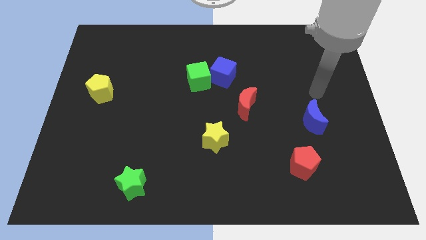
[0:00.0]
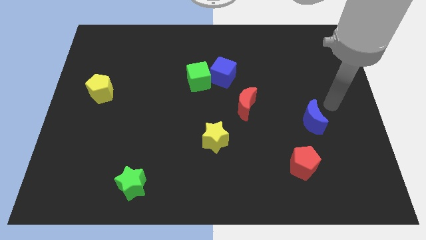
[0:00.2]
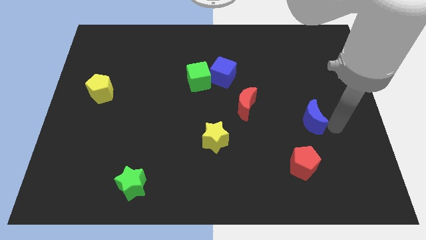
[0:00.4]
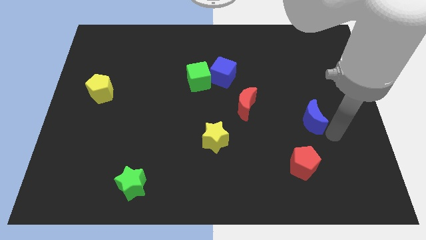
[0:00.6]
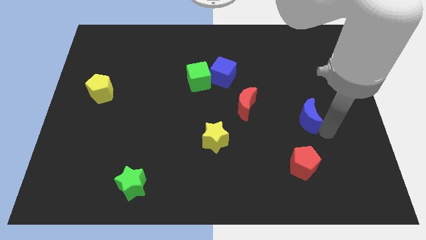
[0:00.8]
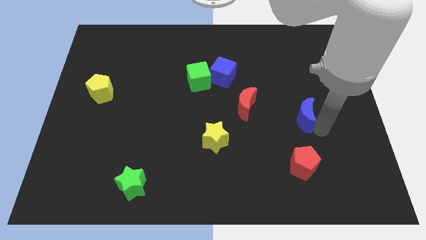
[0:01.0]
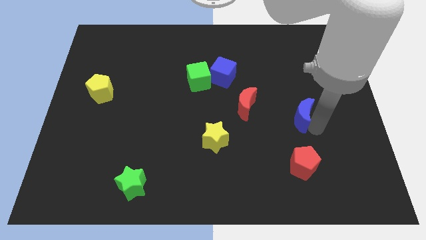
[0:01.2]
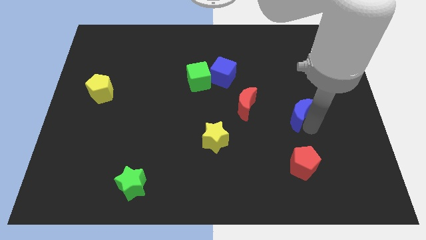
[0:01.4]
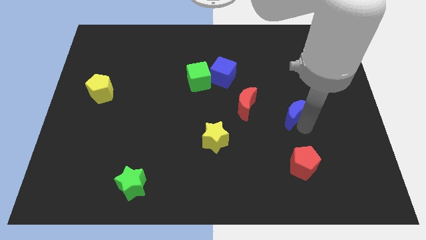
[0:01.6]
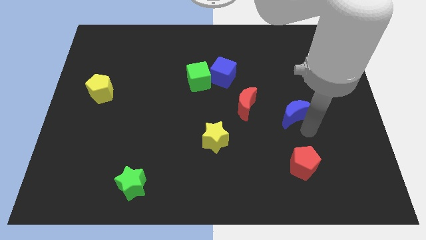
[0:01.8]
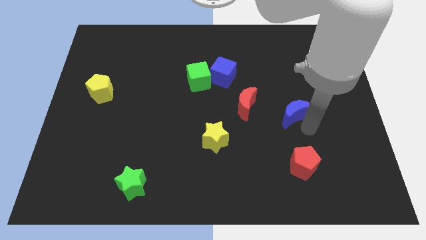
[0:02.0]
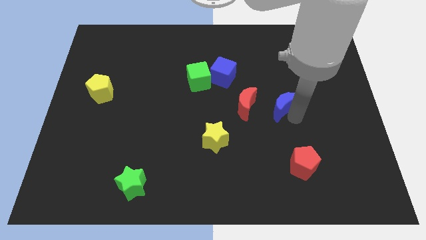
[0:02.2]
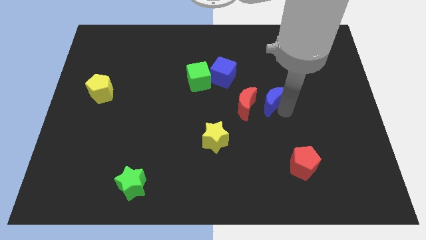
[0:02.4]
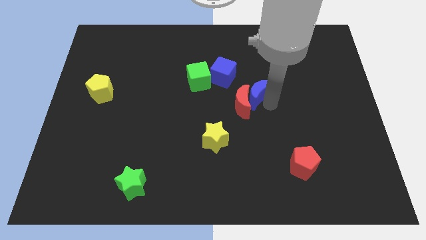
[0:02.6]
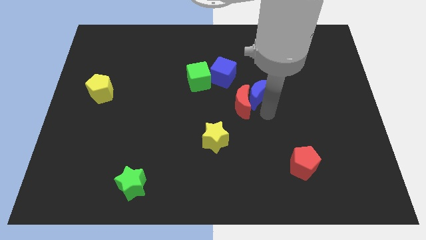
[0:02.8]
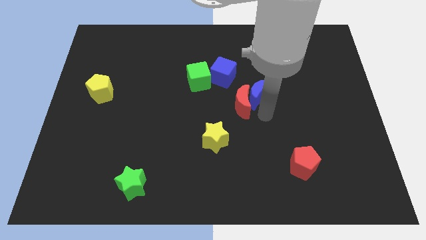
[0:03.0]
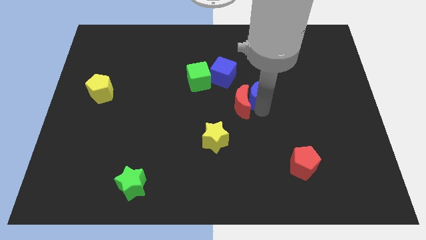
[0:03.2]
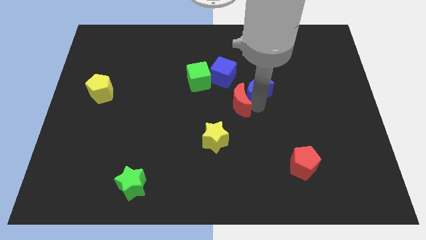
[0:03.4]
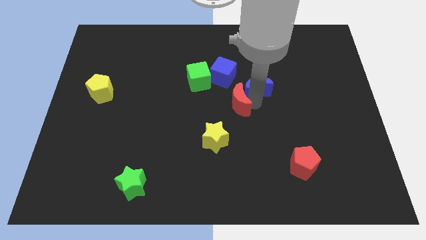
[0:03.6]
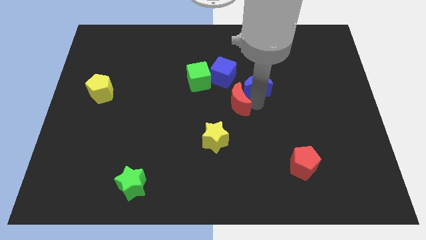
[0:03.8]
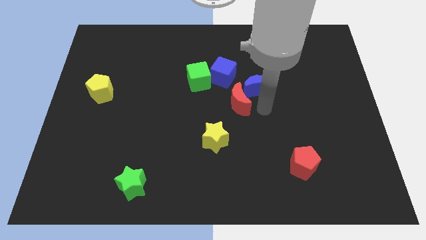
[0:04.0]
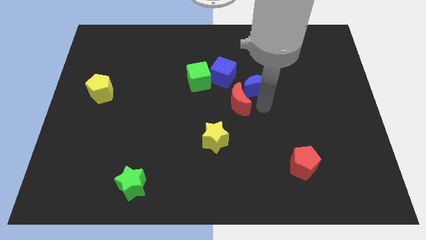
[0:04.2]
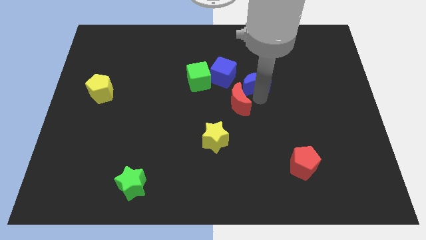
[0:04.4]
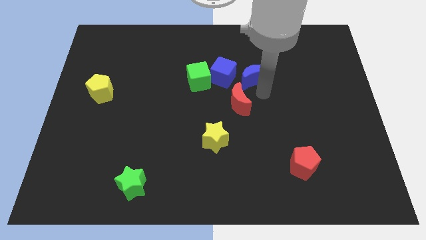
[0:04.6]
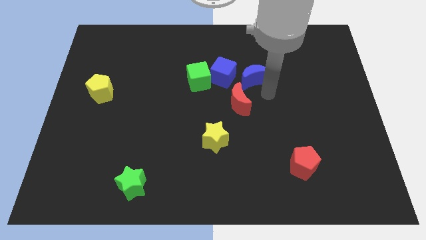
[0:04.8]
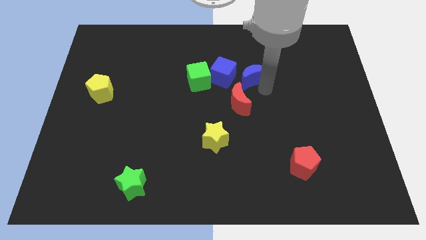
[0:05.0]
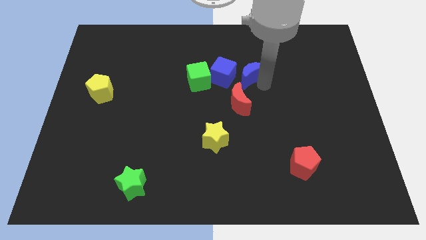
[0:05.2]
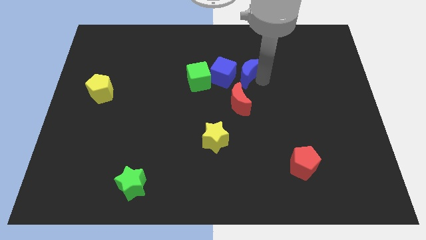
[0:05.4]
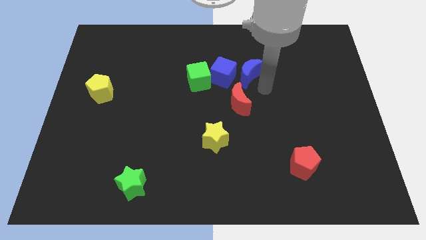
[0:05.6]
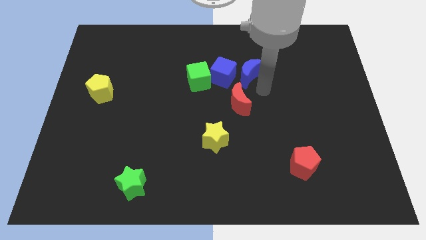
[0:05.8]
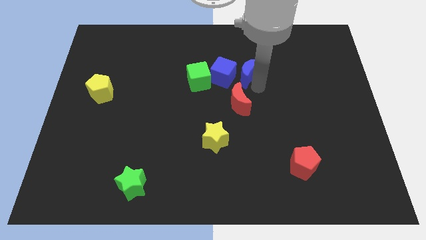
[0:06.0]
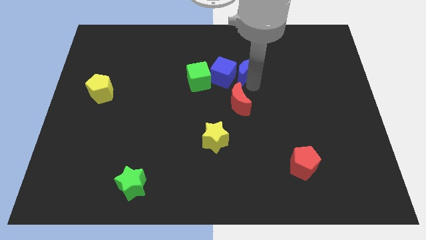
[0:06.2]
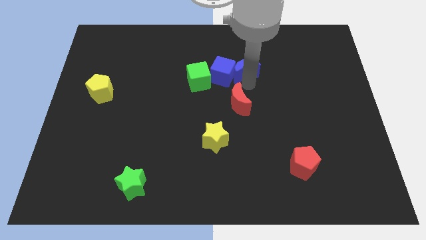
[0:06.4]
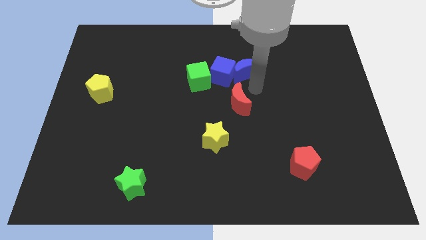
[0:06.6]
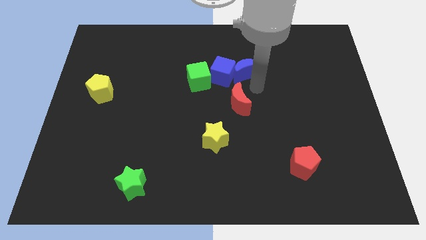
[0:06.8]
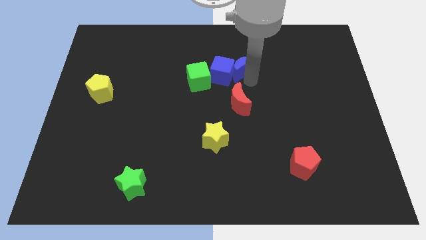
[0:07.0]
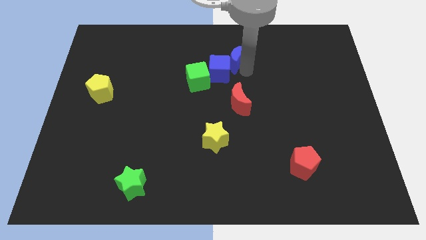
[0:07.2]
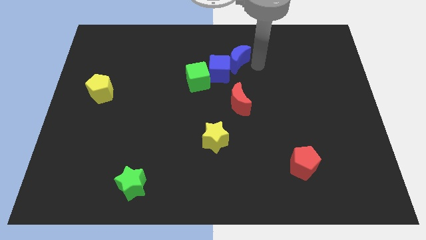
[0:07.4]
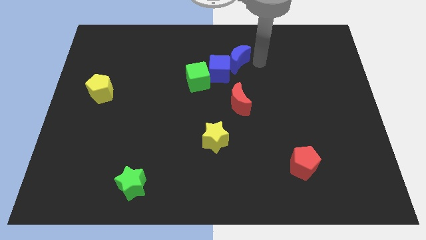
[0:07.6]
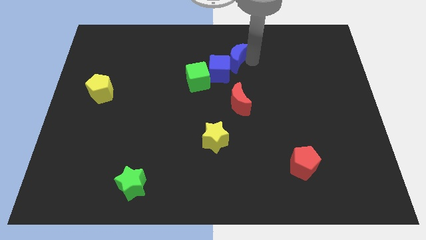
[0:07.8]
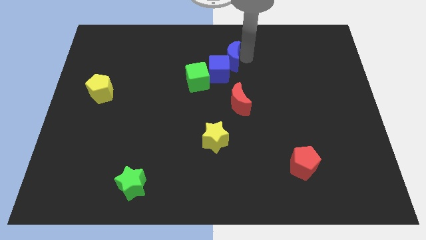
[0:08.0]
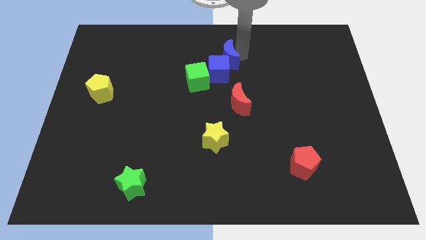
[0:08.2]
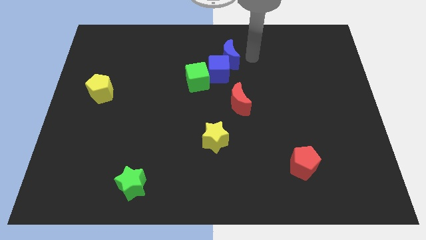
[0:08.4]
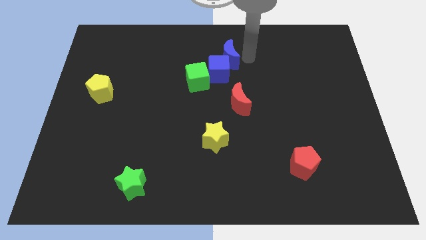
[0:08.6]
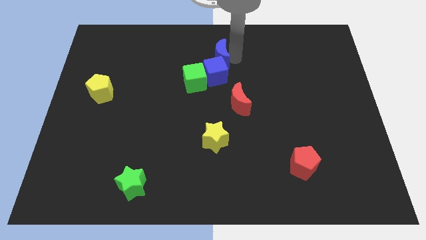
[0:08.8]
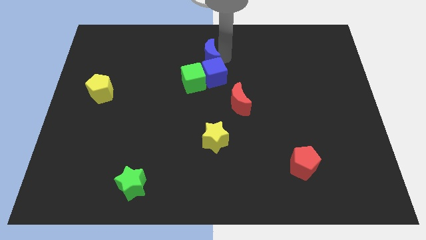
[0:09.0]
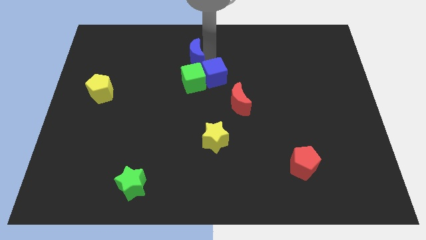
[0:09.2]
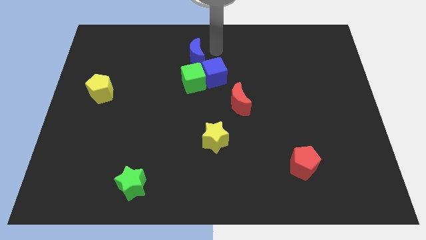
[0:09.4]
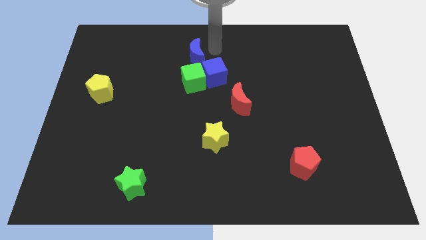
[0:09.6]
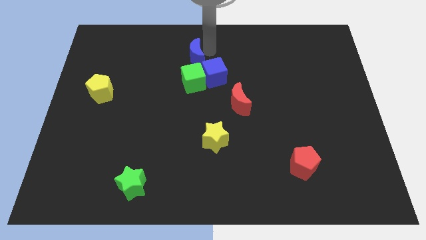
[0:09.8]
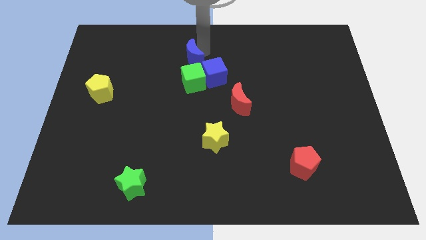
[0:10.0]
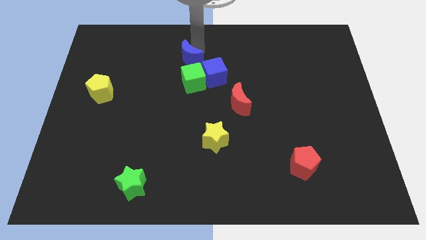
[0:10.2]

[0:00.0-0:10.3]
push the blue moon to the top left side of the green cube

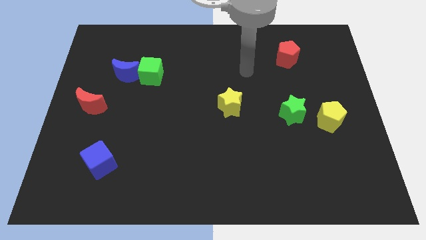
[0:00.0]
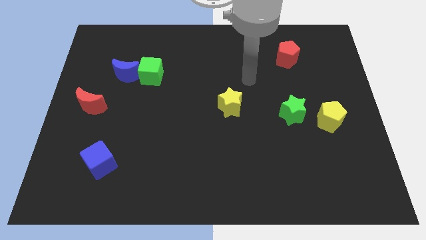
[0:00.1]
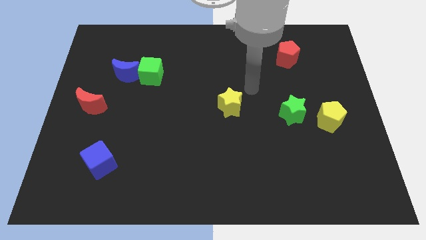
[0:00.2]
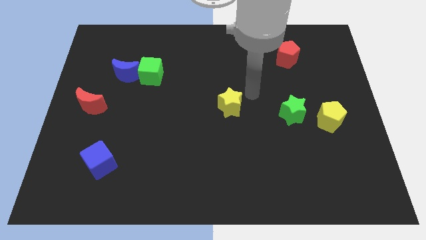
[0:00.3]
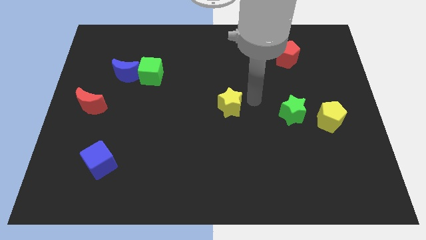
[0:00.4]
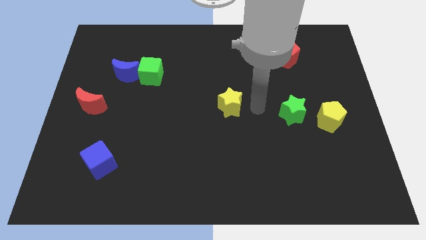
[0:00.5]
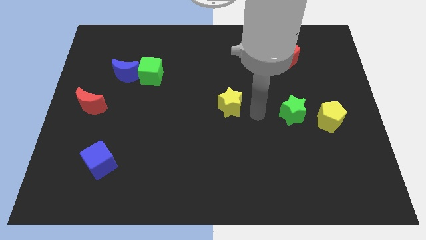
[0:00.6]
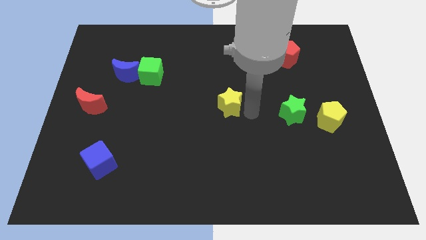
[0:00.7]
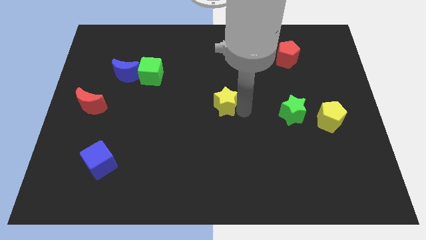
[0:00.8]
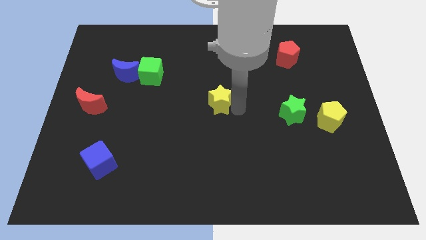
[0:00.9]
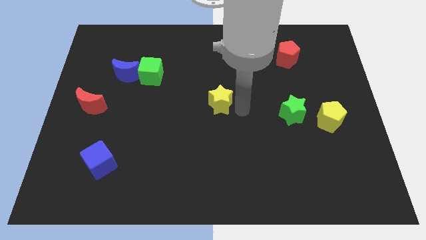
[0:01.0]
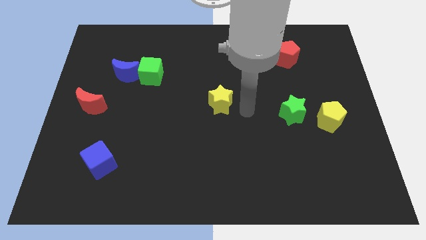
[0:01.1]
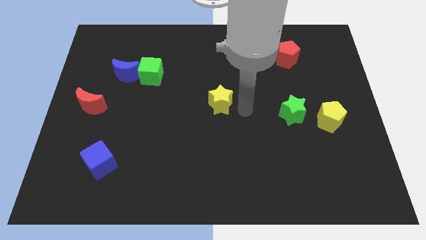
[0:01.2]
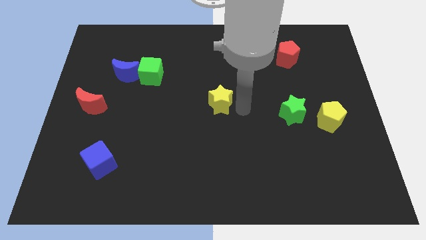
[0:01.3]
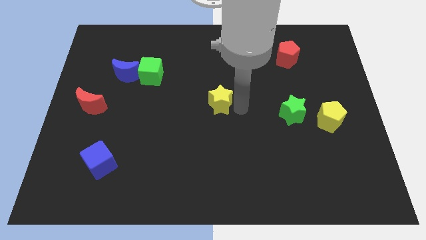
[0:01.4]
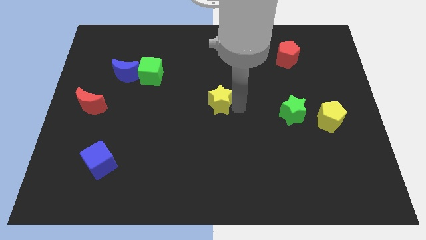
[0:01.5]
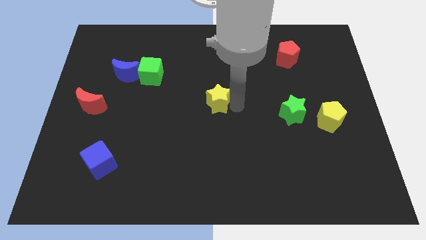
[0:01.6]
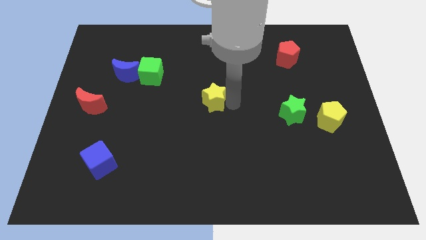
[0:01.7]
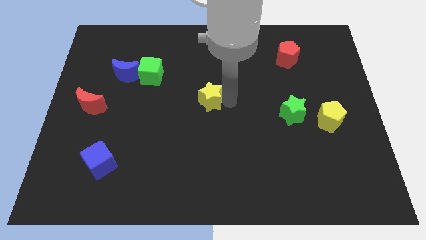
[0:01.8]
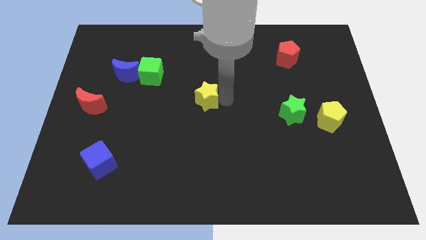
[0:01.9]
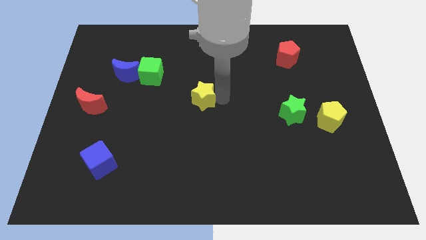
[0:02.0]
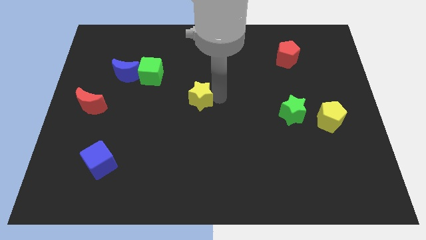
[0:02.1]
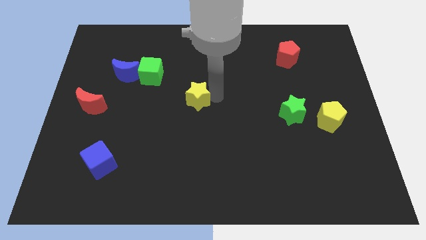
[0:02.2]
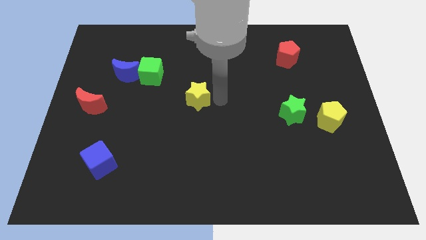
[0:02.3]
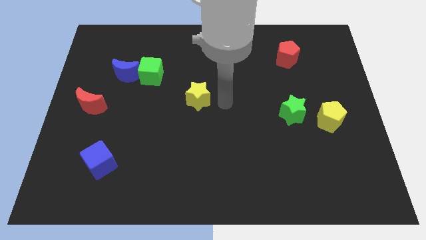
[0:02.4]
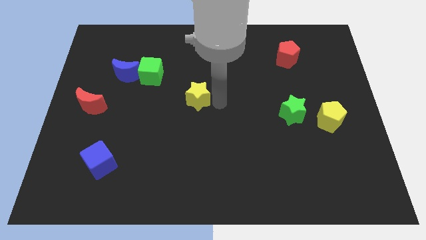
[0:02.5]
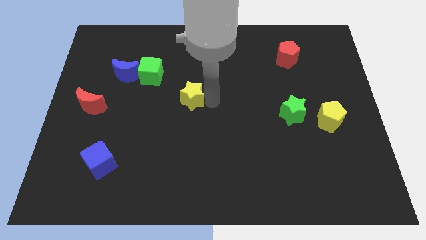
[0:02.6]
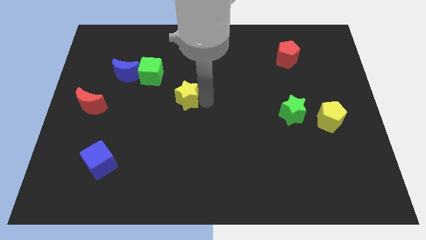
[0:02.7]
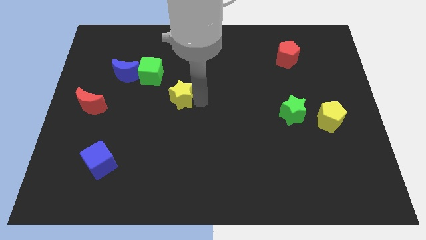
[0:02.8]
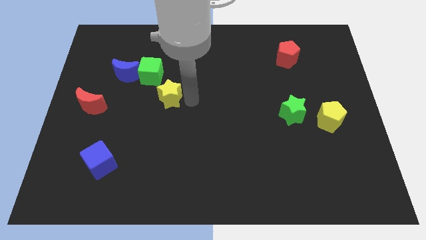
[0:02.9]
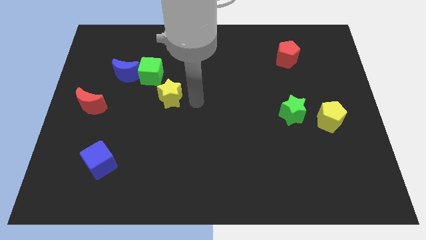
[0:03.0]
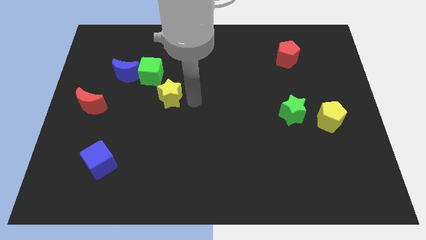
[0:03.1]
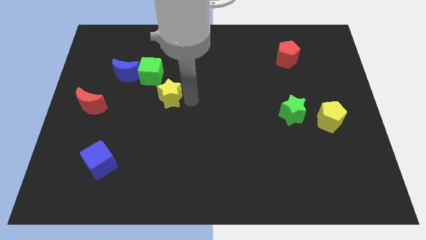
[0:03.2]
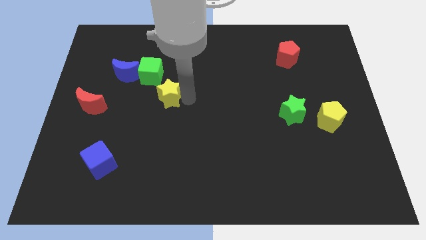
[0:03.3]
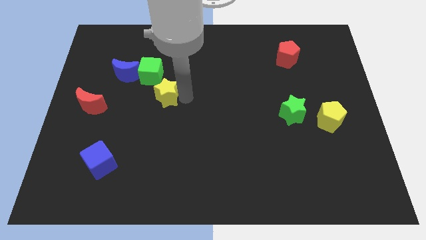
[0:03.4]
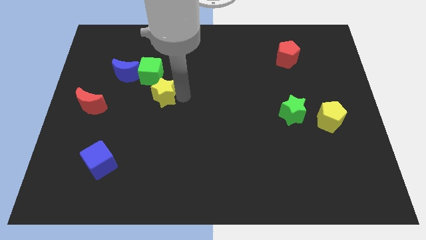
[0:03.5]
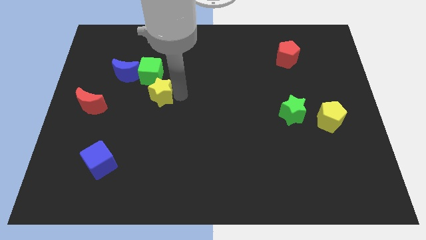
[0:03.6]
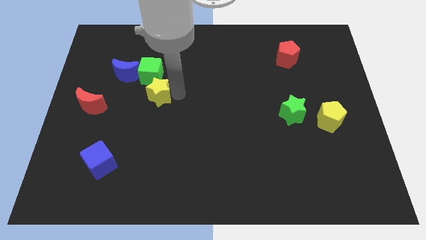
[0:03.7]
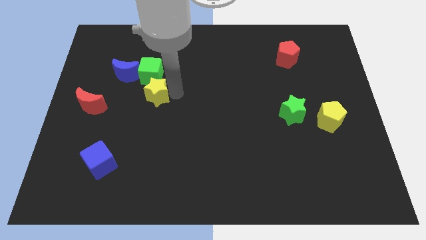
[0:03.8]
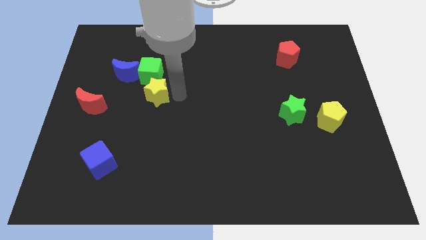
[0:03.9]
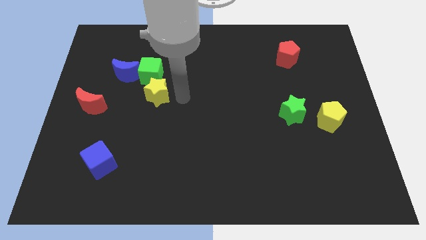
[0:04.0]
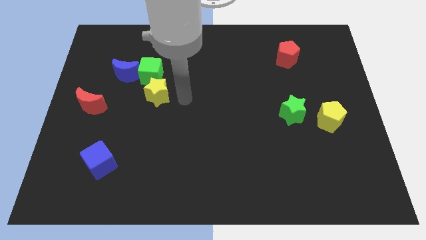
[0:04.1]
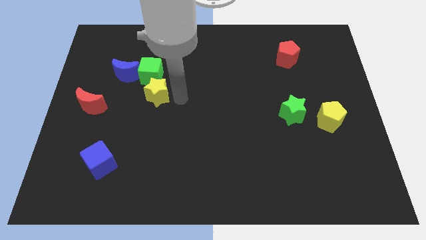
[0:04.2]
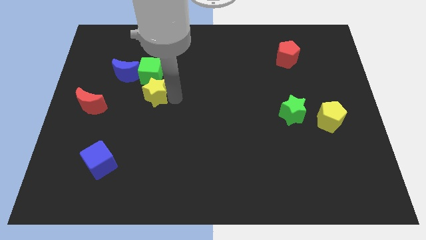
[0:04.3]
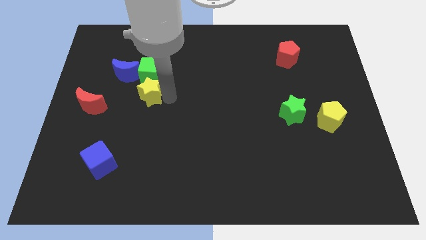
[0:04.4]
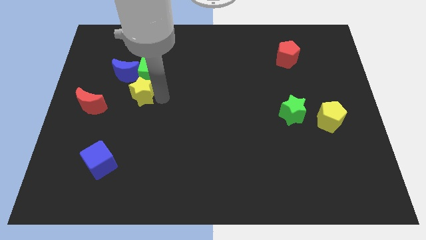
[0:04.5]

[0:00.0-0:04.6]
push the yellow star to the bottom left side of the green cube
